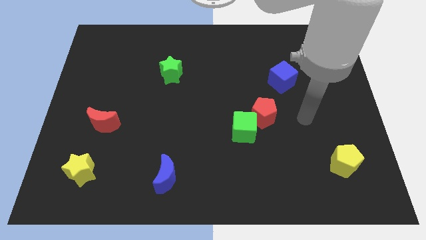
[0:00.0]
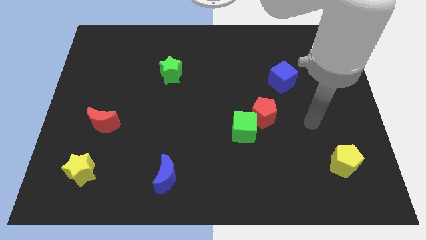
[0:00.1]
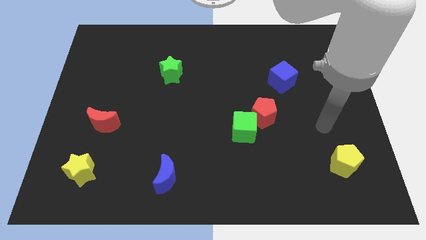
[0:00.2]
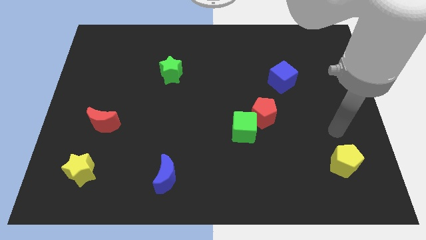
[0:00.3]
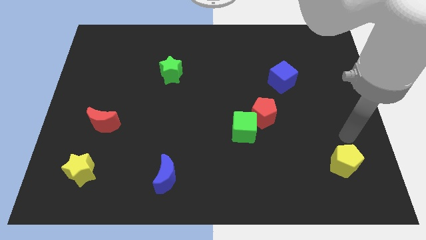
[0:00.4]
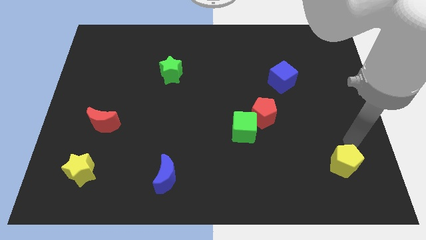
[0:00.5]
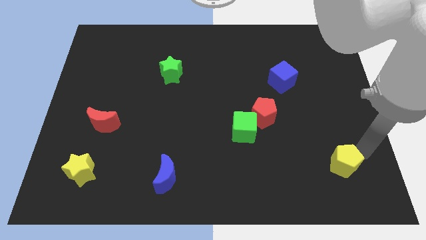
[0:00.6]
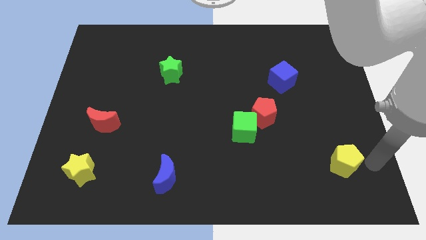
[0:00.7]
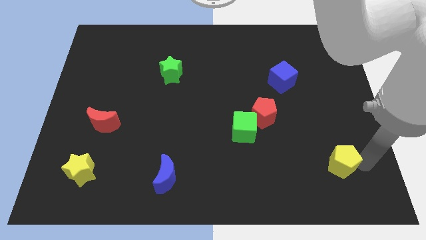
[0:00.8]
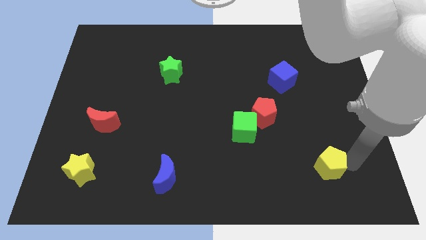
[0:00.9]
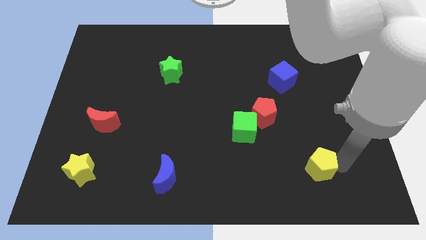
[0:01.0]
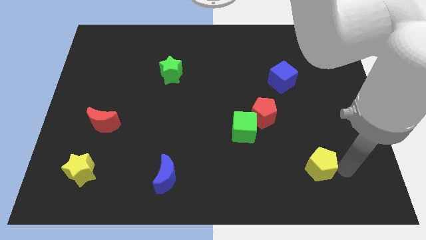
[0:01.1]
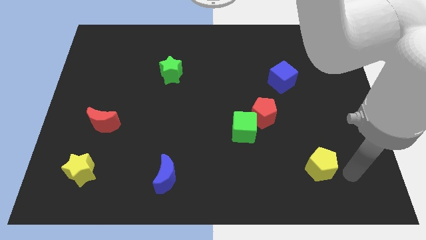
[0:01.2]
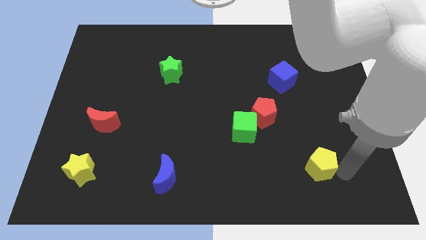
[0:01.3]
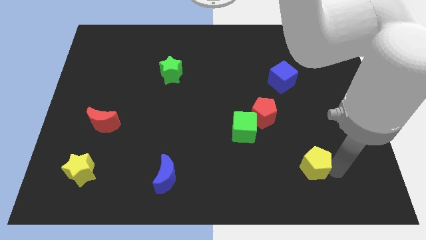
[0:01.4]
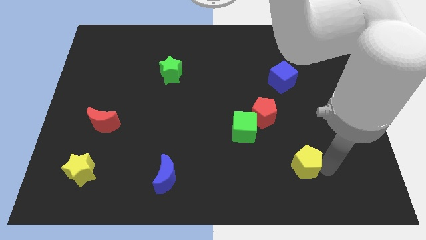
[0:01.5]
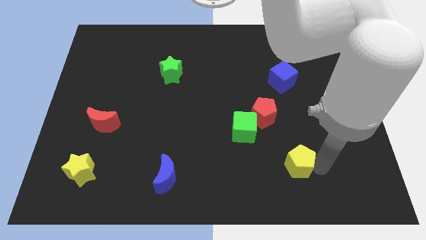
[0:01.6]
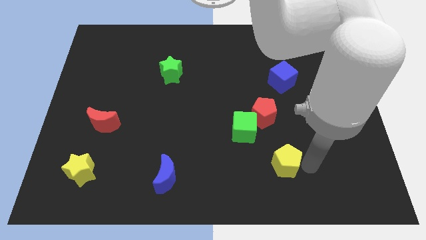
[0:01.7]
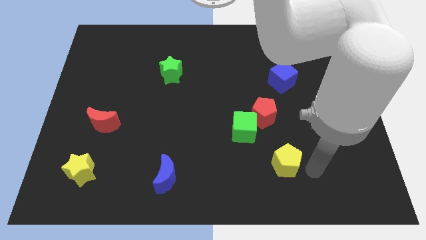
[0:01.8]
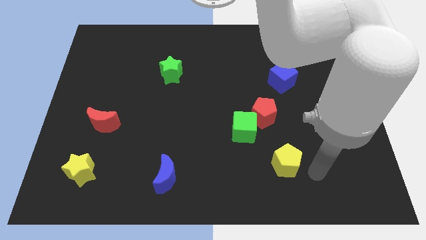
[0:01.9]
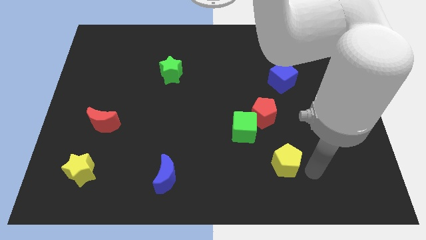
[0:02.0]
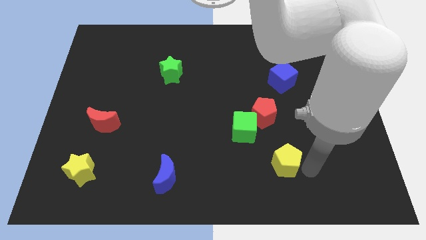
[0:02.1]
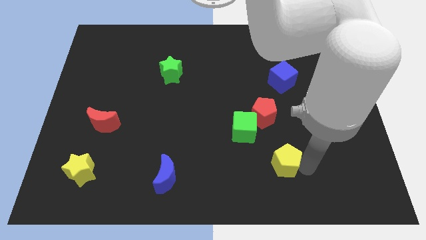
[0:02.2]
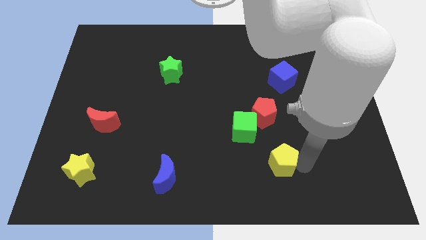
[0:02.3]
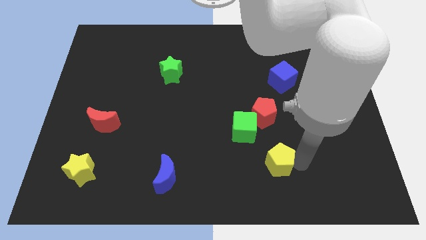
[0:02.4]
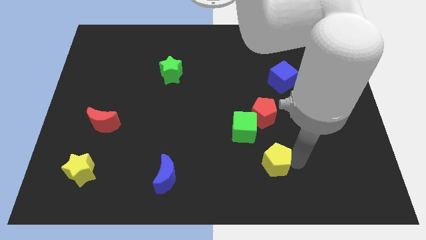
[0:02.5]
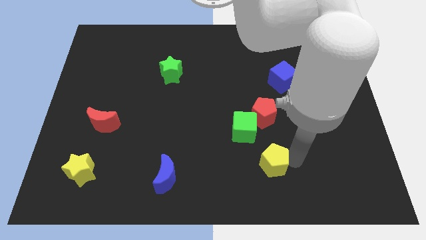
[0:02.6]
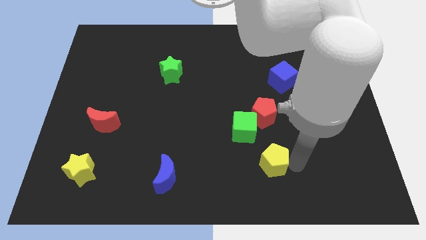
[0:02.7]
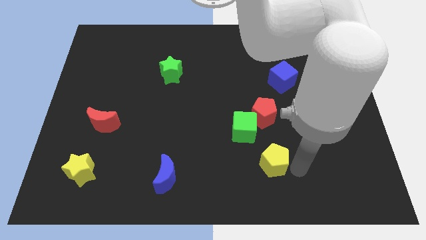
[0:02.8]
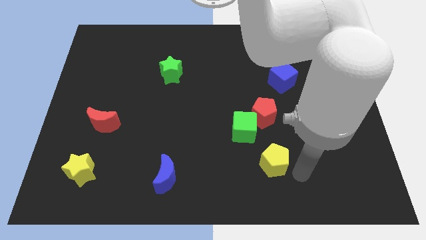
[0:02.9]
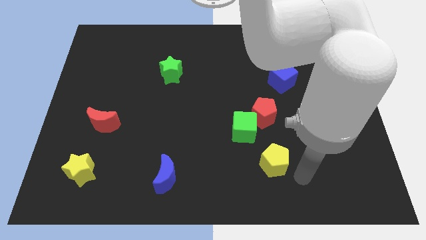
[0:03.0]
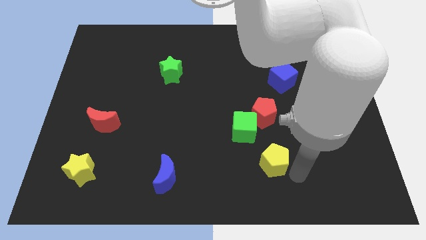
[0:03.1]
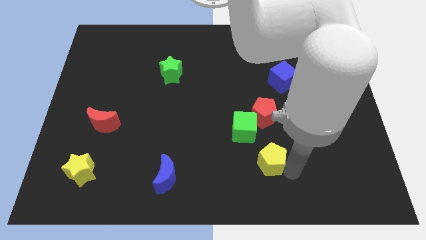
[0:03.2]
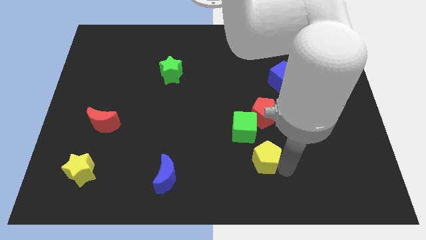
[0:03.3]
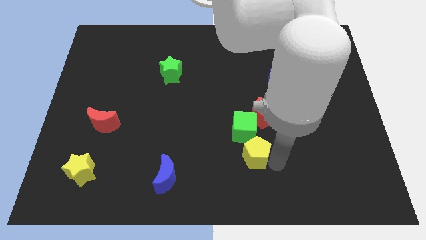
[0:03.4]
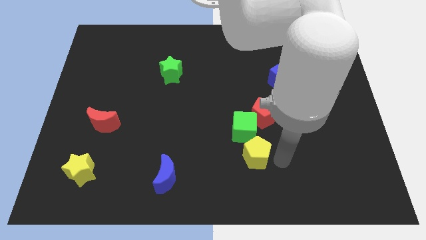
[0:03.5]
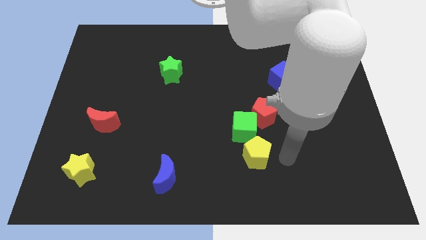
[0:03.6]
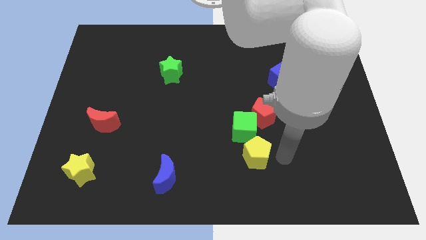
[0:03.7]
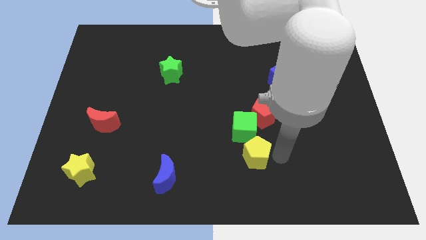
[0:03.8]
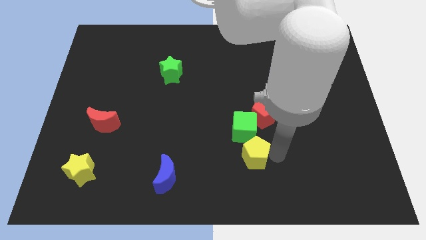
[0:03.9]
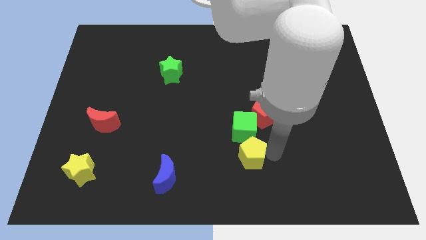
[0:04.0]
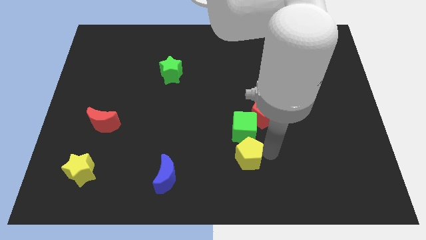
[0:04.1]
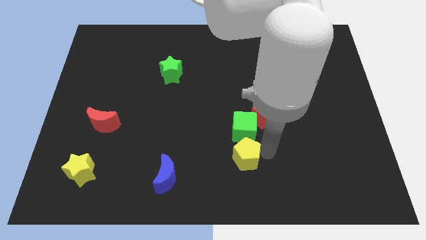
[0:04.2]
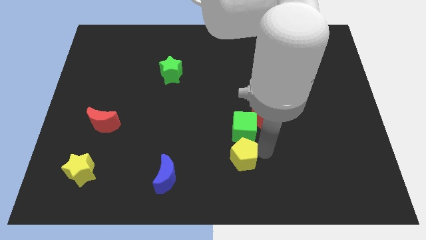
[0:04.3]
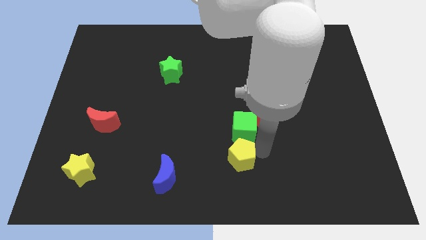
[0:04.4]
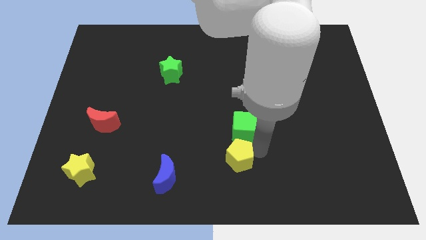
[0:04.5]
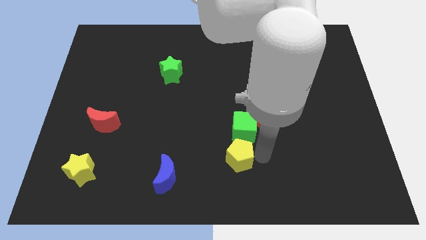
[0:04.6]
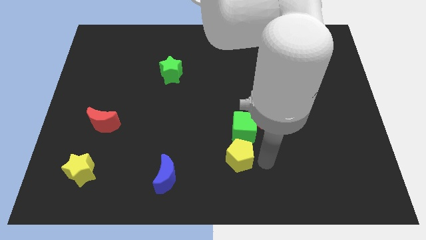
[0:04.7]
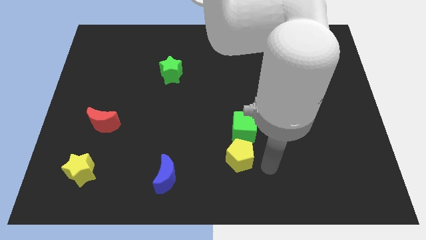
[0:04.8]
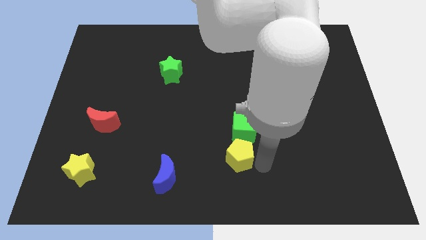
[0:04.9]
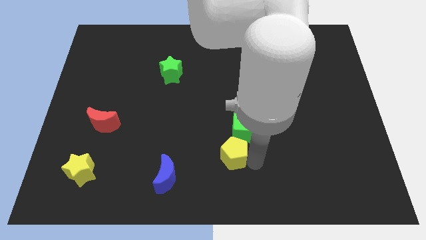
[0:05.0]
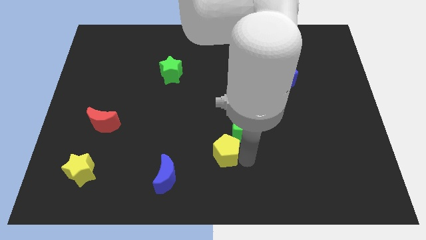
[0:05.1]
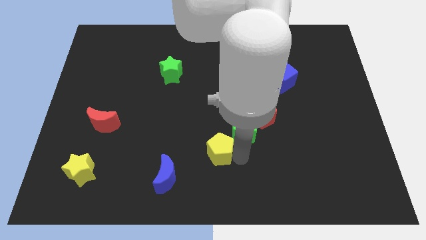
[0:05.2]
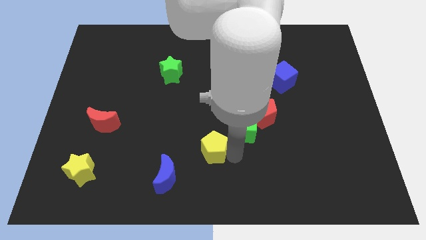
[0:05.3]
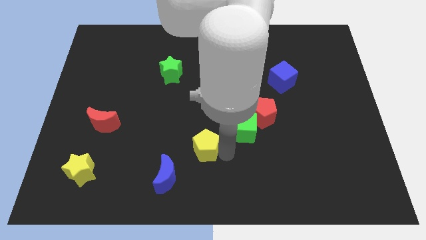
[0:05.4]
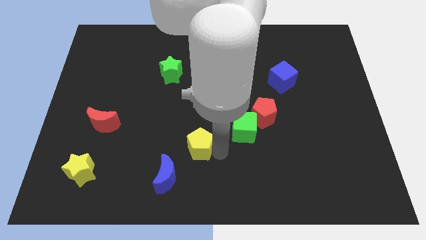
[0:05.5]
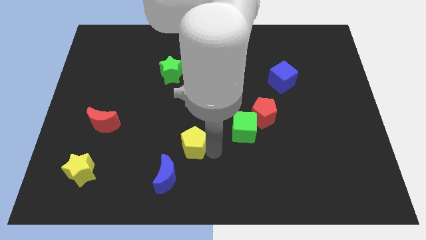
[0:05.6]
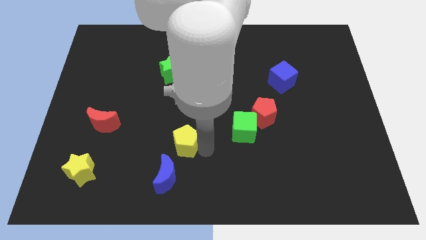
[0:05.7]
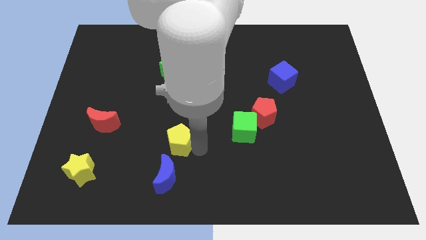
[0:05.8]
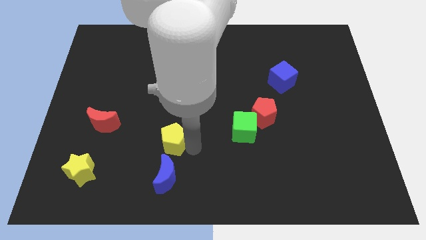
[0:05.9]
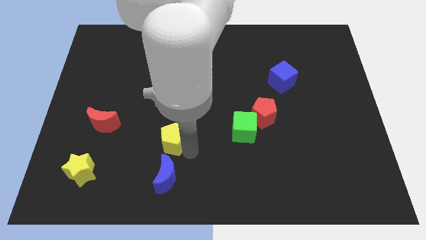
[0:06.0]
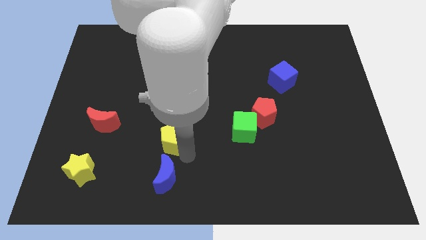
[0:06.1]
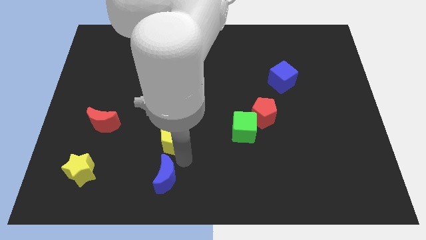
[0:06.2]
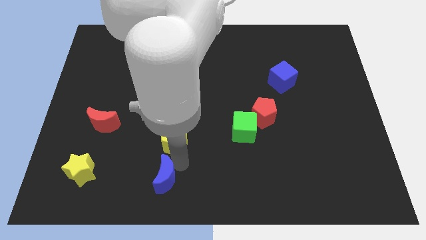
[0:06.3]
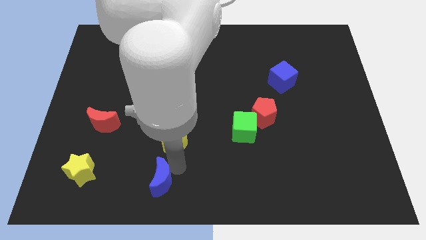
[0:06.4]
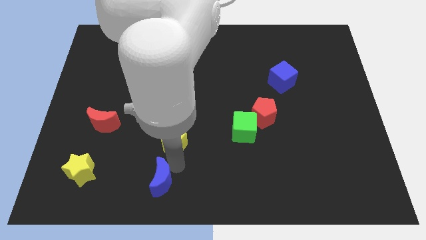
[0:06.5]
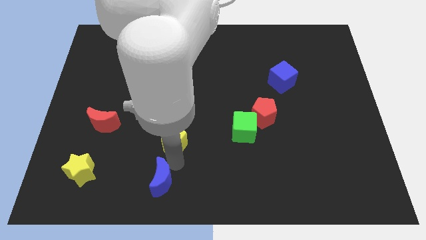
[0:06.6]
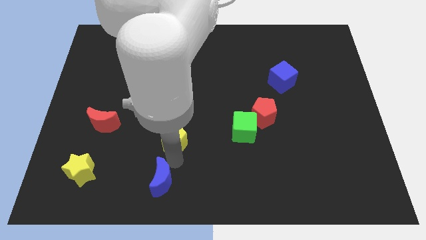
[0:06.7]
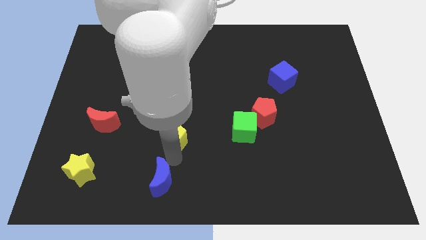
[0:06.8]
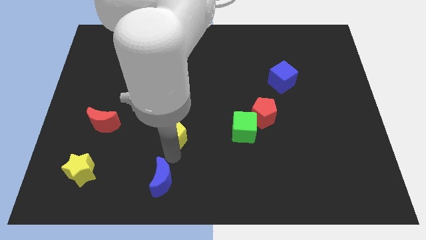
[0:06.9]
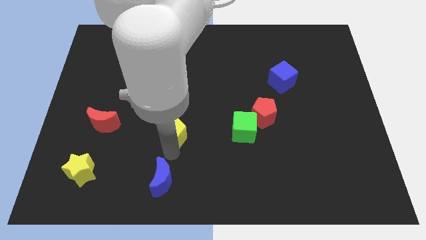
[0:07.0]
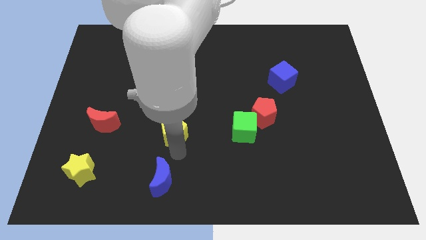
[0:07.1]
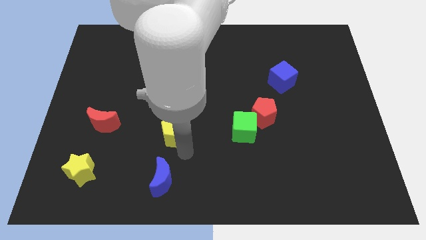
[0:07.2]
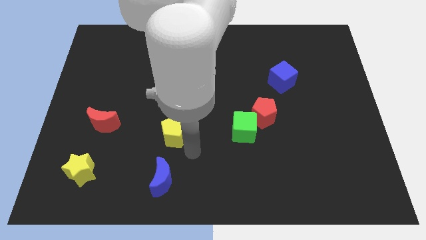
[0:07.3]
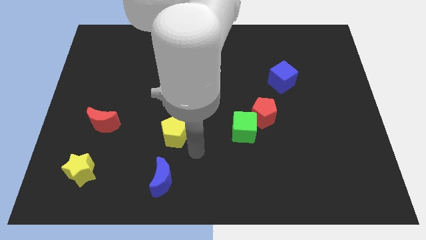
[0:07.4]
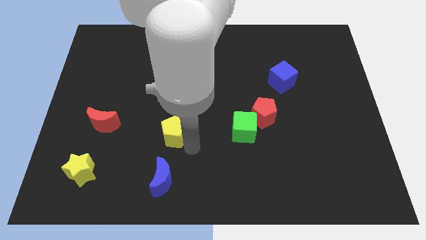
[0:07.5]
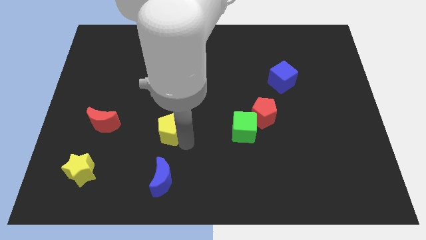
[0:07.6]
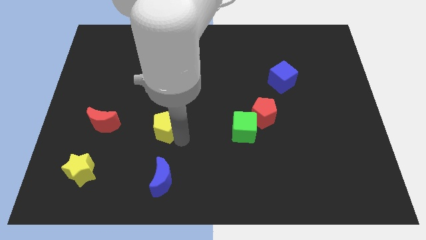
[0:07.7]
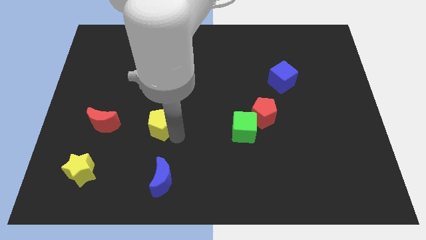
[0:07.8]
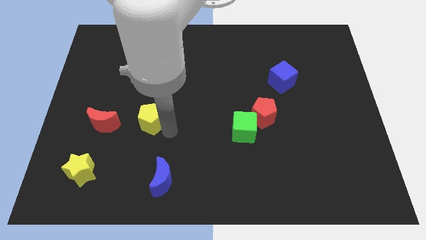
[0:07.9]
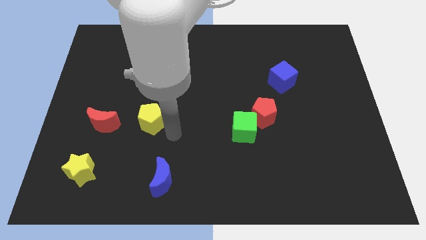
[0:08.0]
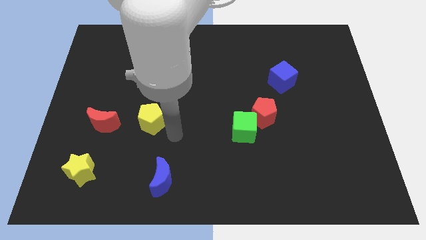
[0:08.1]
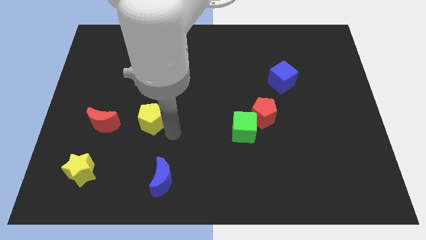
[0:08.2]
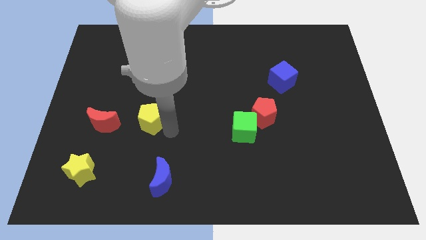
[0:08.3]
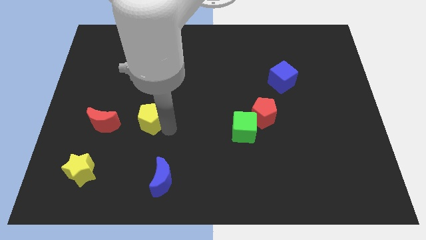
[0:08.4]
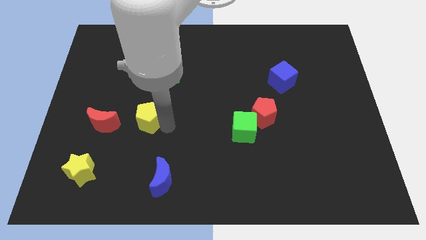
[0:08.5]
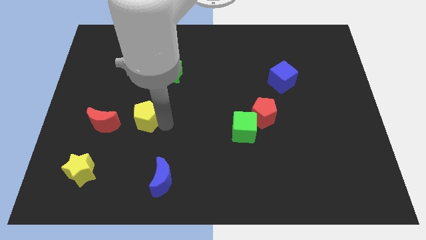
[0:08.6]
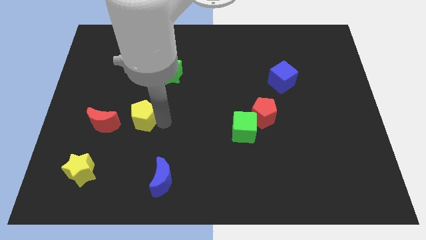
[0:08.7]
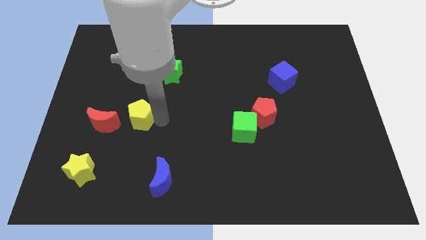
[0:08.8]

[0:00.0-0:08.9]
push the yellow pentagon to the top right side of the red moon
